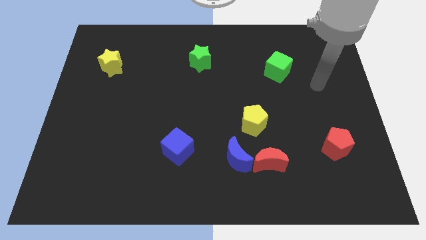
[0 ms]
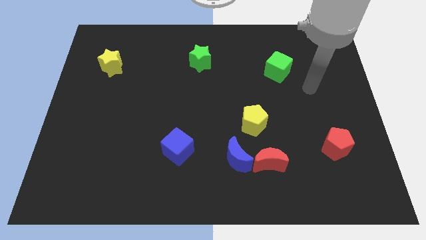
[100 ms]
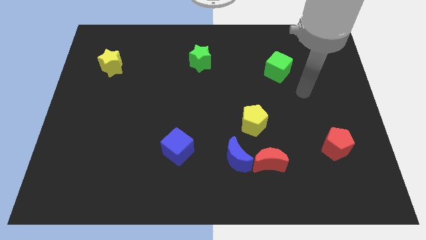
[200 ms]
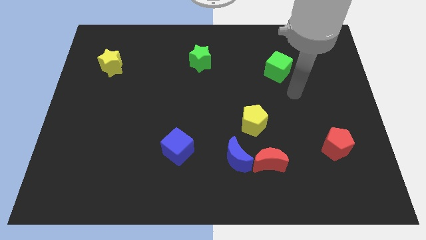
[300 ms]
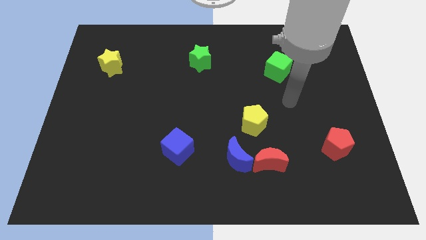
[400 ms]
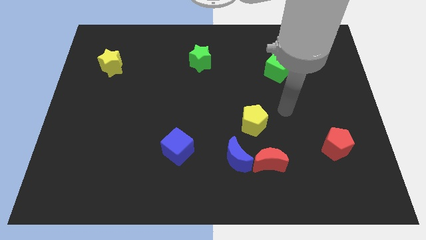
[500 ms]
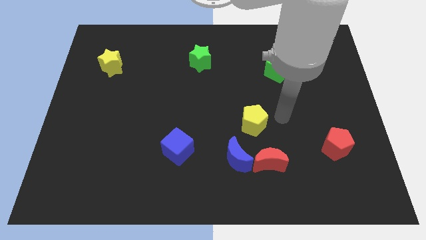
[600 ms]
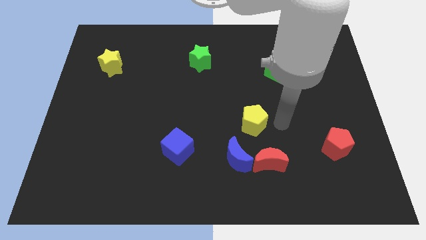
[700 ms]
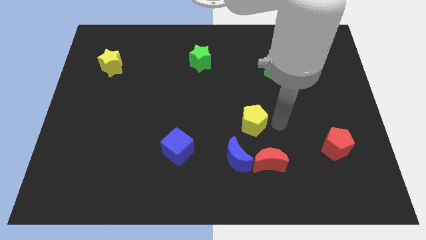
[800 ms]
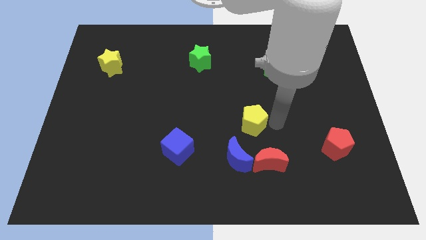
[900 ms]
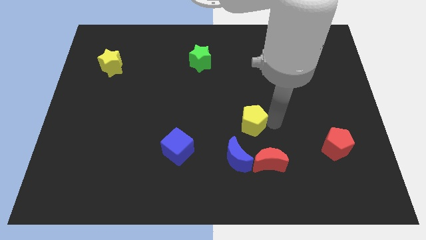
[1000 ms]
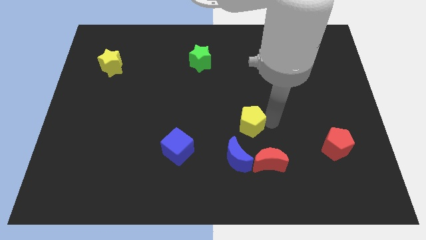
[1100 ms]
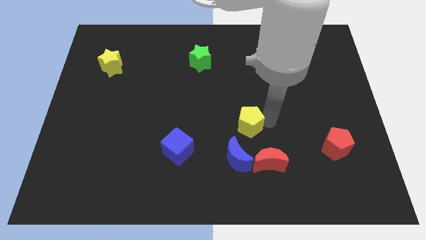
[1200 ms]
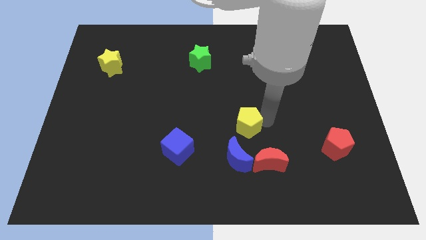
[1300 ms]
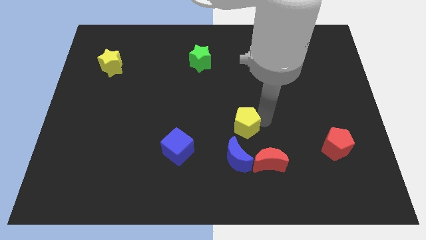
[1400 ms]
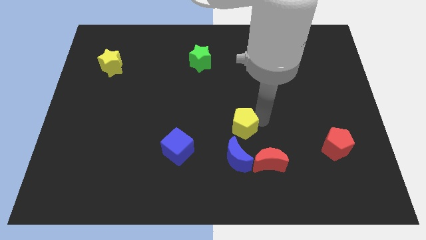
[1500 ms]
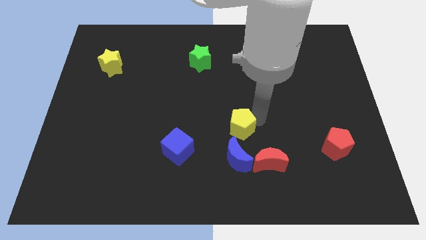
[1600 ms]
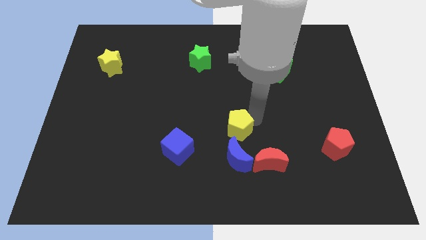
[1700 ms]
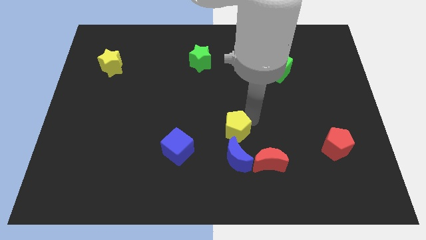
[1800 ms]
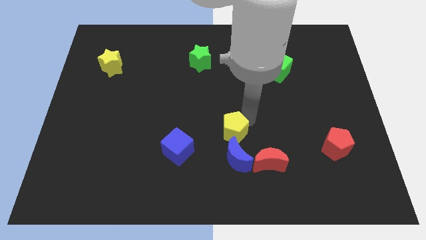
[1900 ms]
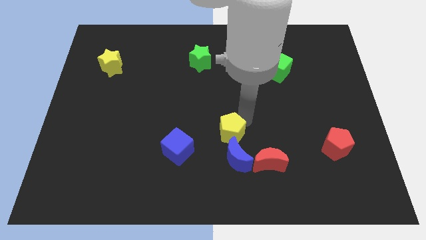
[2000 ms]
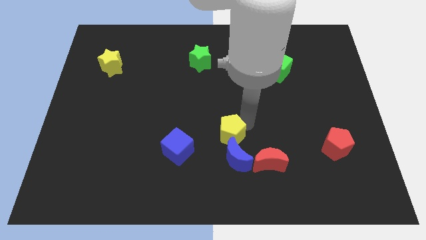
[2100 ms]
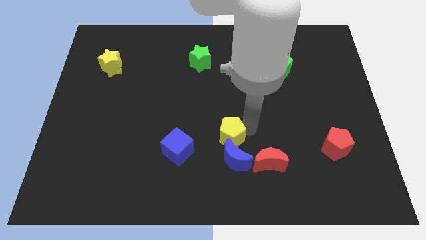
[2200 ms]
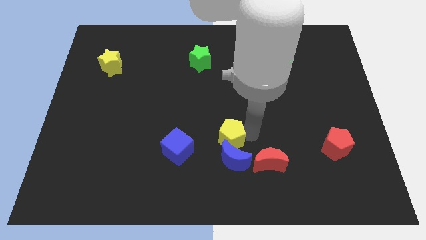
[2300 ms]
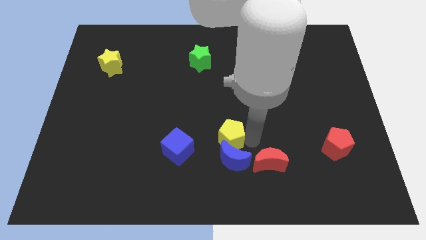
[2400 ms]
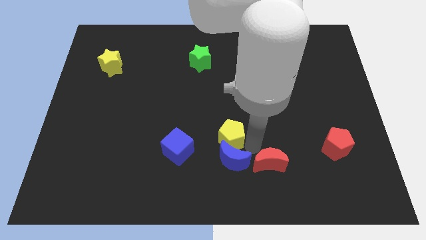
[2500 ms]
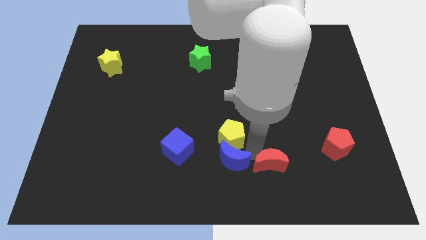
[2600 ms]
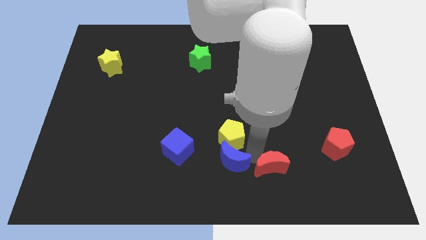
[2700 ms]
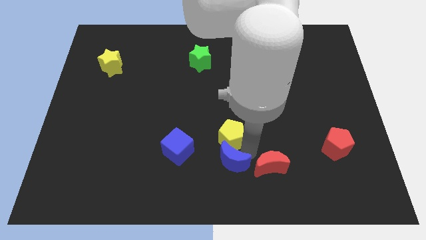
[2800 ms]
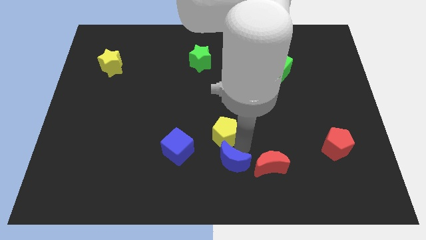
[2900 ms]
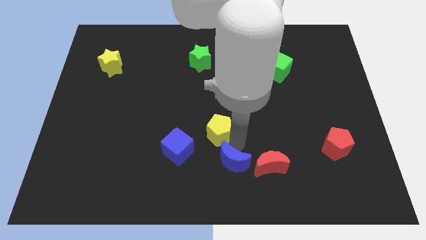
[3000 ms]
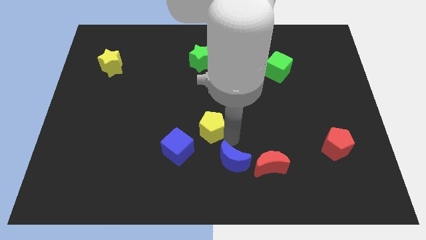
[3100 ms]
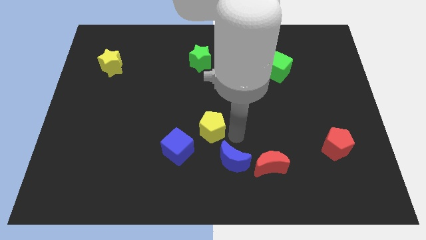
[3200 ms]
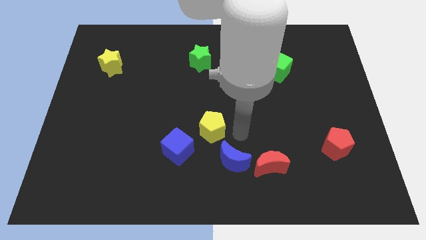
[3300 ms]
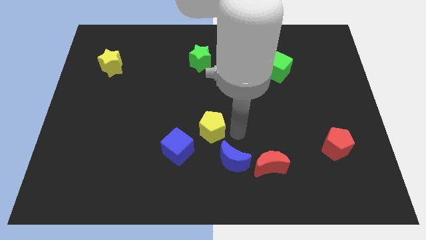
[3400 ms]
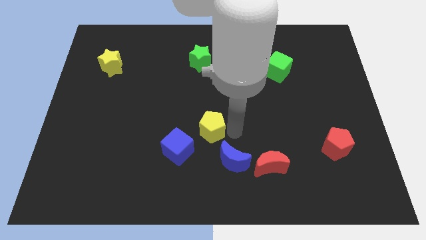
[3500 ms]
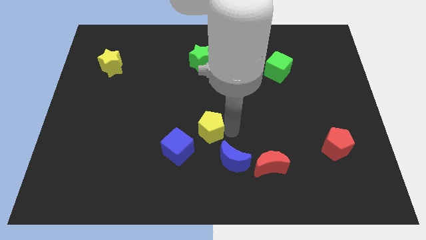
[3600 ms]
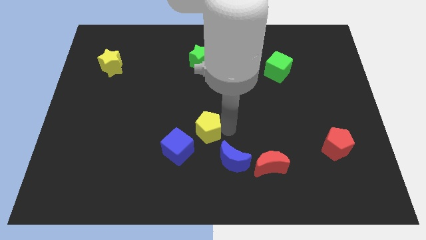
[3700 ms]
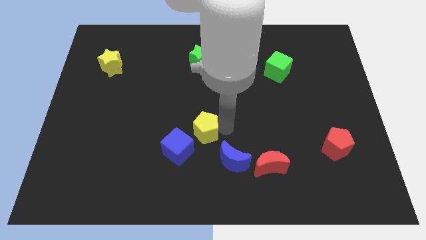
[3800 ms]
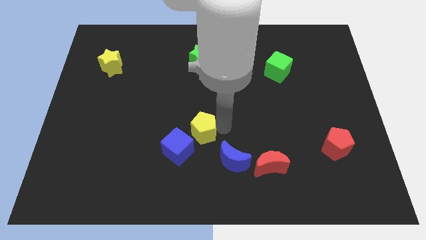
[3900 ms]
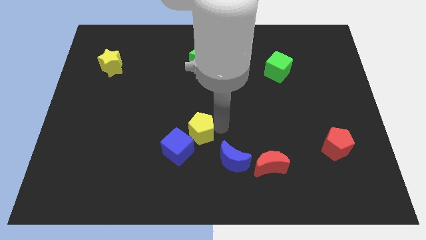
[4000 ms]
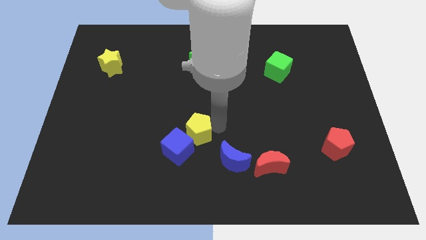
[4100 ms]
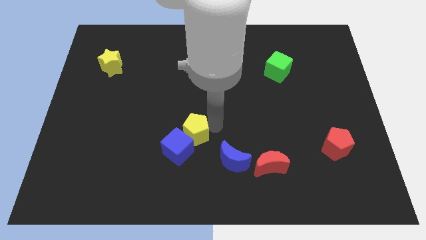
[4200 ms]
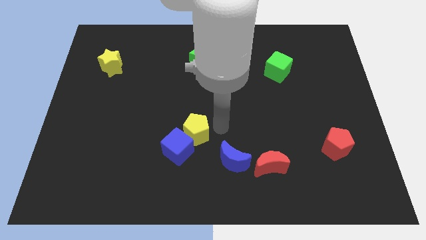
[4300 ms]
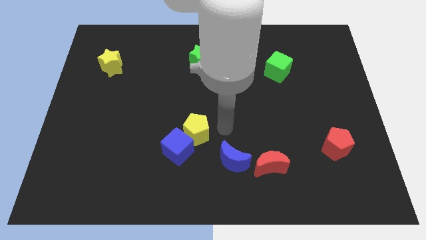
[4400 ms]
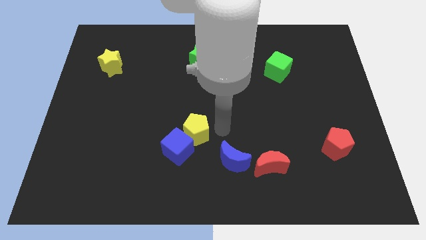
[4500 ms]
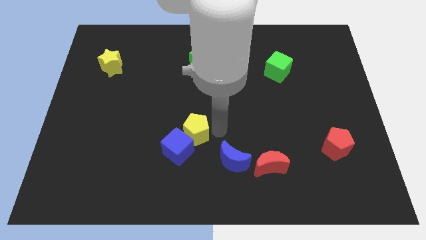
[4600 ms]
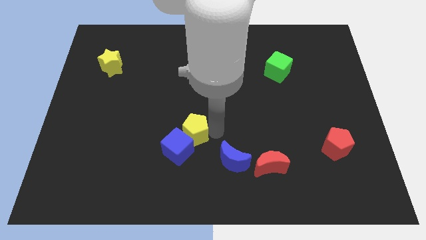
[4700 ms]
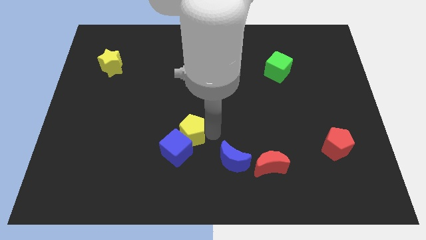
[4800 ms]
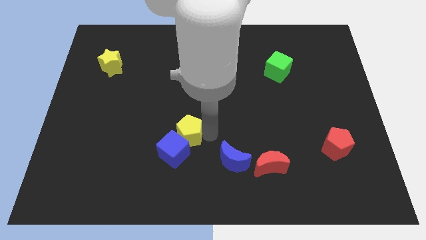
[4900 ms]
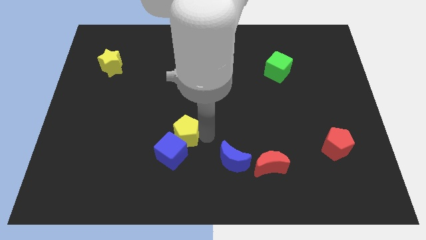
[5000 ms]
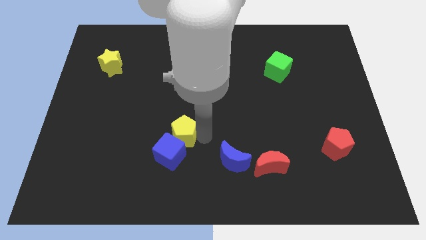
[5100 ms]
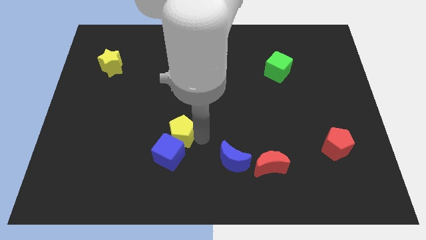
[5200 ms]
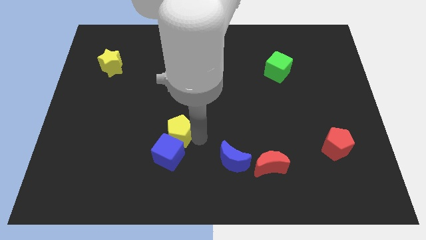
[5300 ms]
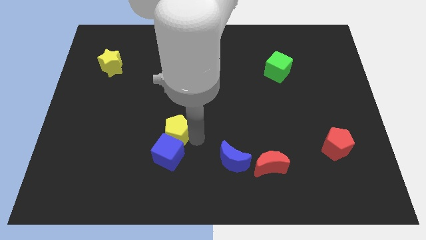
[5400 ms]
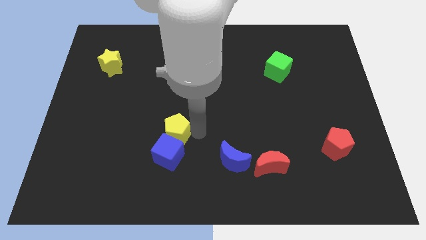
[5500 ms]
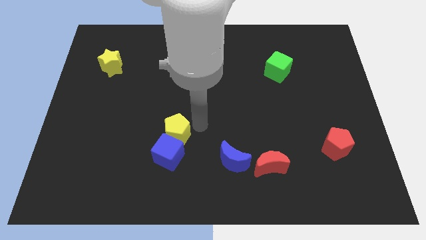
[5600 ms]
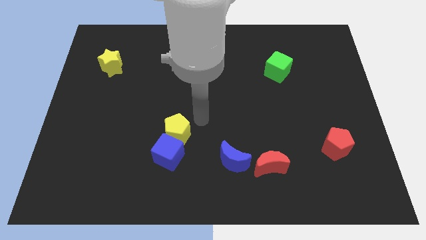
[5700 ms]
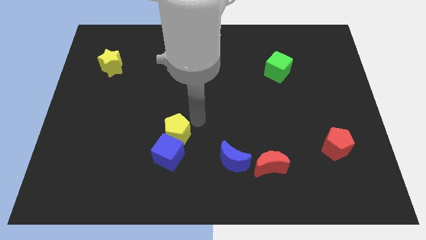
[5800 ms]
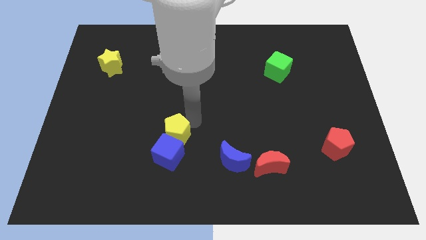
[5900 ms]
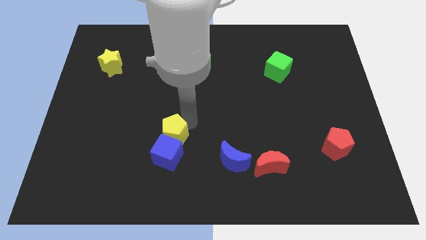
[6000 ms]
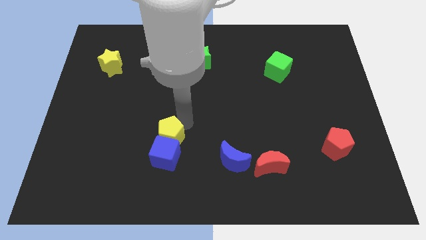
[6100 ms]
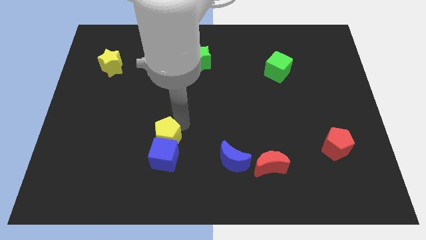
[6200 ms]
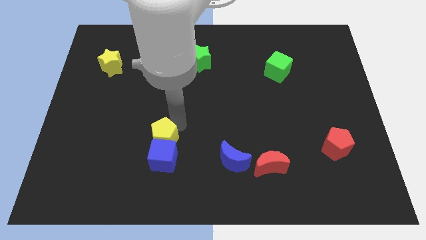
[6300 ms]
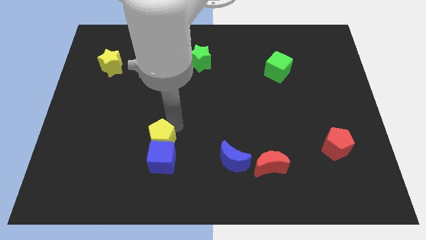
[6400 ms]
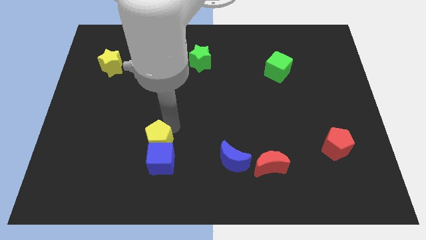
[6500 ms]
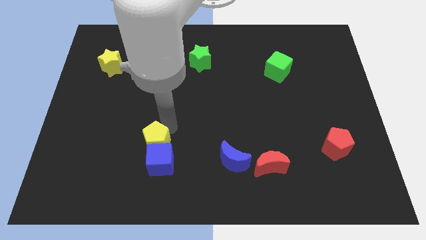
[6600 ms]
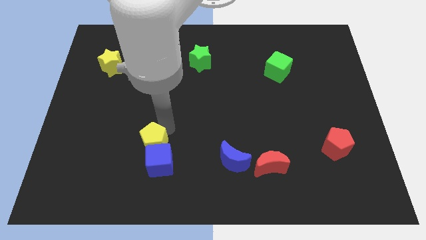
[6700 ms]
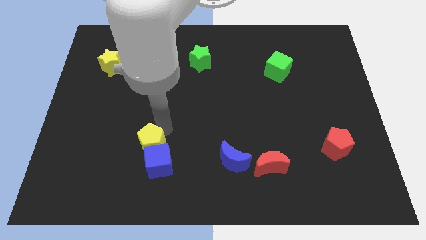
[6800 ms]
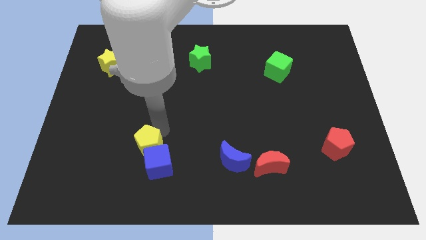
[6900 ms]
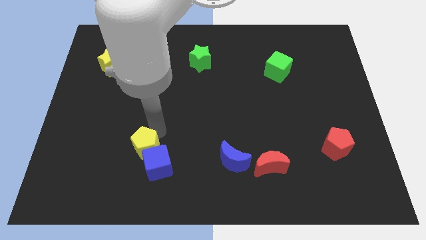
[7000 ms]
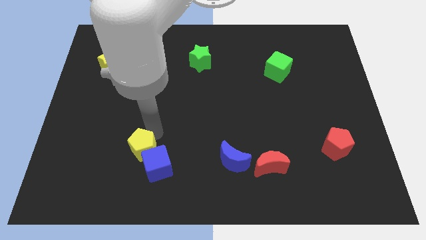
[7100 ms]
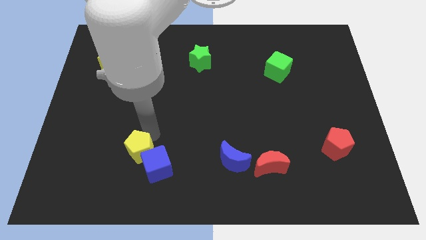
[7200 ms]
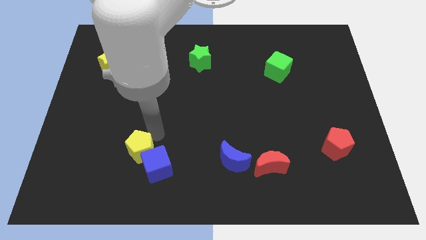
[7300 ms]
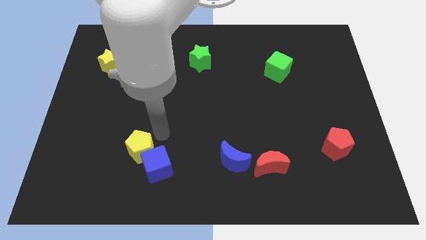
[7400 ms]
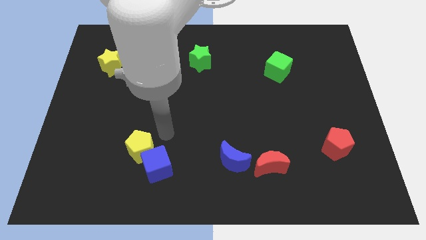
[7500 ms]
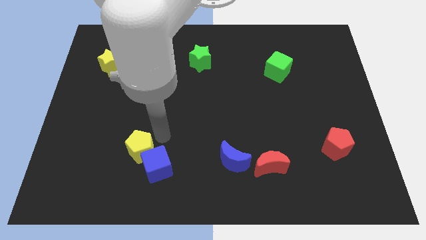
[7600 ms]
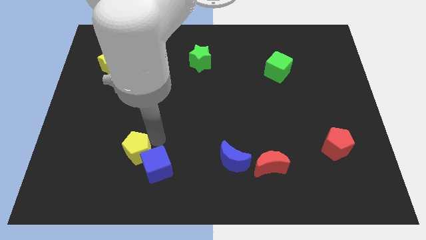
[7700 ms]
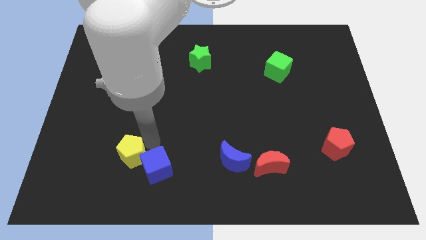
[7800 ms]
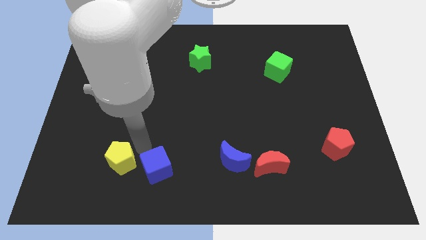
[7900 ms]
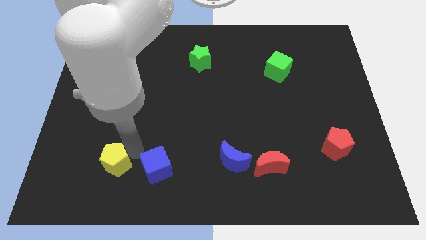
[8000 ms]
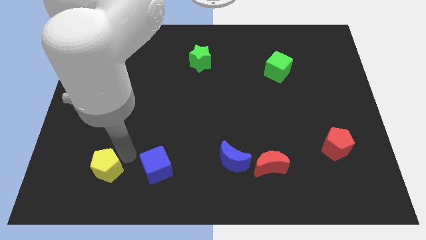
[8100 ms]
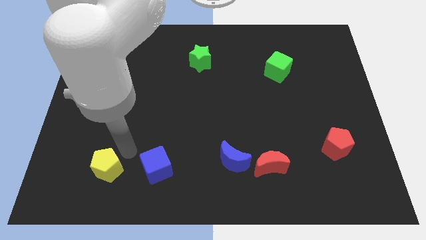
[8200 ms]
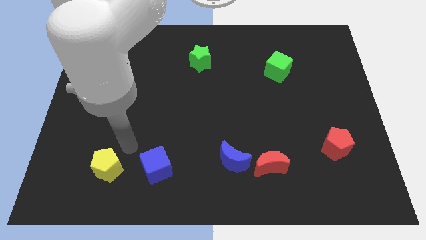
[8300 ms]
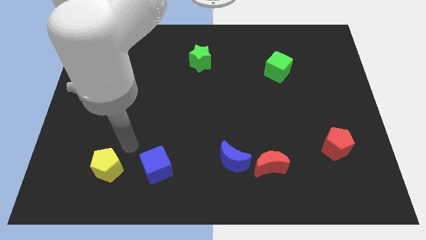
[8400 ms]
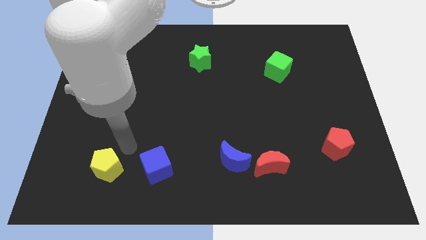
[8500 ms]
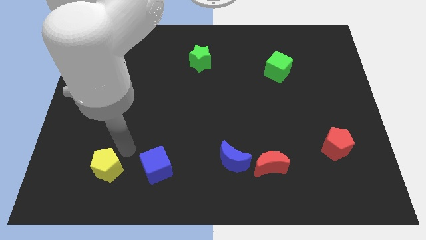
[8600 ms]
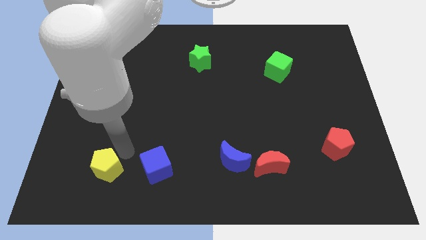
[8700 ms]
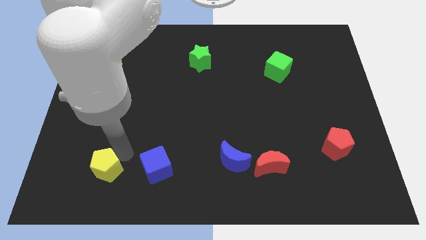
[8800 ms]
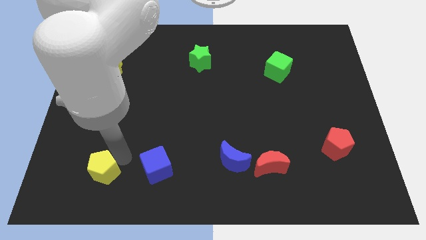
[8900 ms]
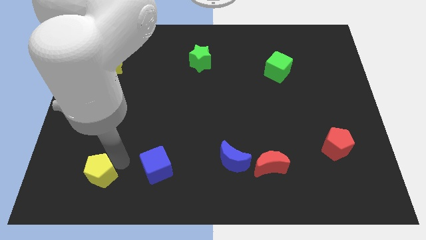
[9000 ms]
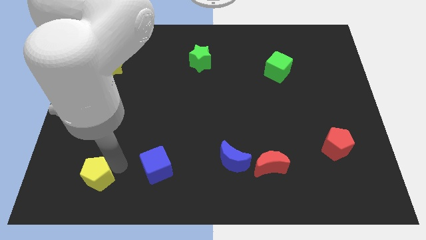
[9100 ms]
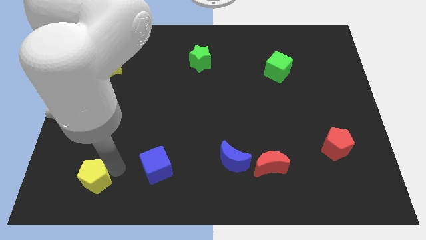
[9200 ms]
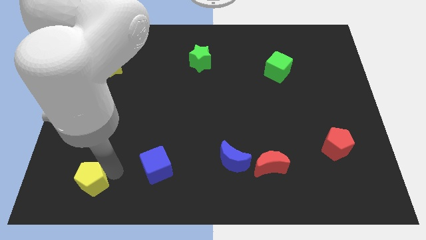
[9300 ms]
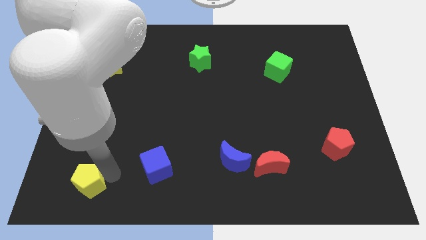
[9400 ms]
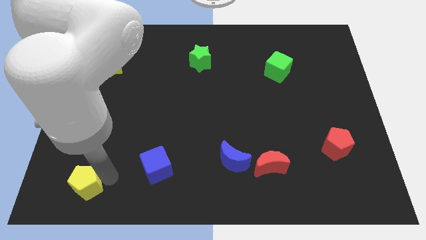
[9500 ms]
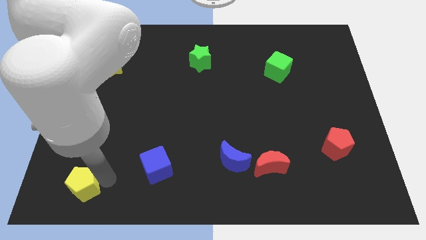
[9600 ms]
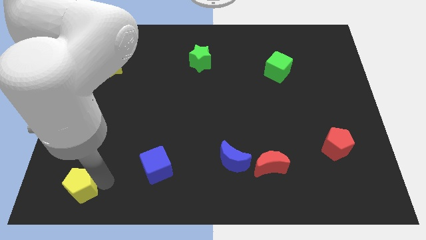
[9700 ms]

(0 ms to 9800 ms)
move the yellow pentagon to the bottom left
